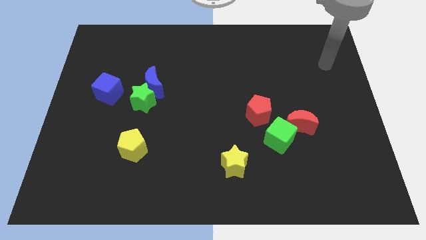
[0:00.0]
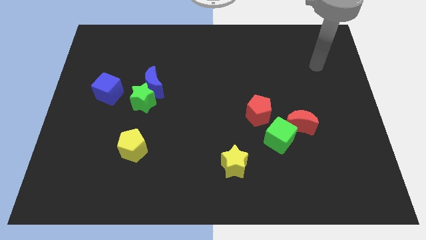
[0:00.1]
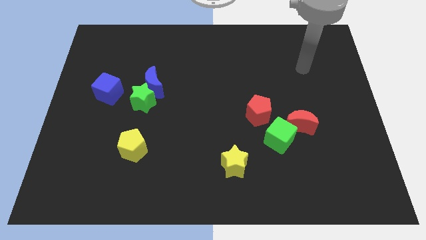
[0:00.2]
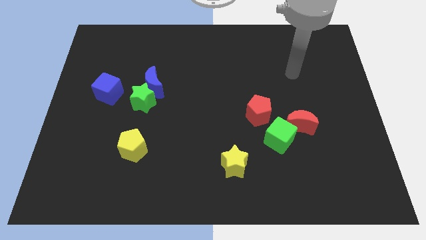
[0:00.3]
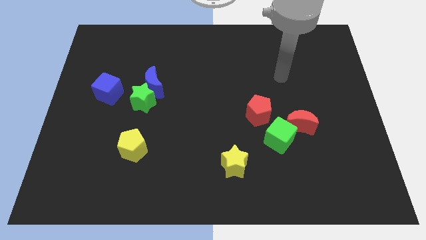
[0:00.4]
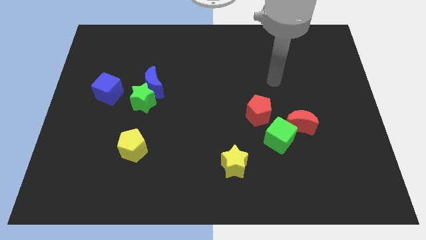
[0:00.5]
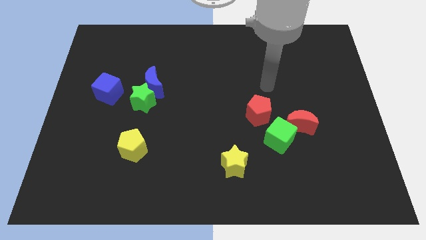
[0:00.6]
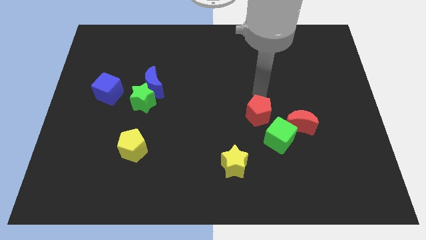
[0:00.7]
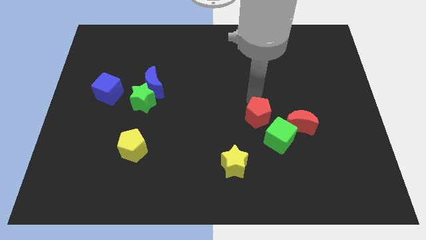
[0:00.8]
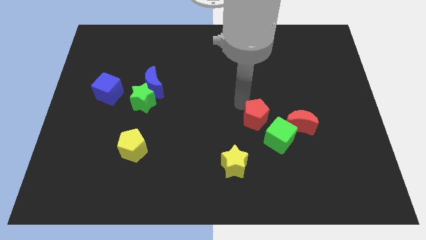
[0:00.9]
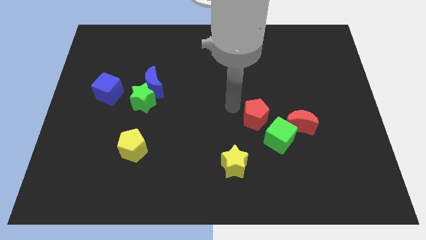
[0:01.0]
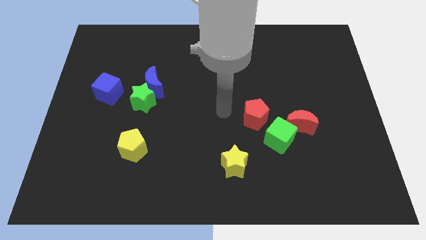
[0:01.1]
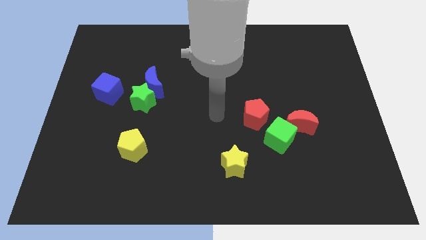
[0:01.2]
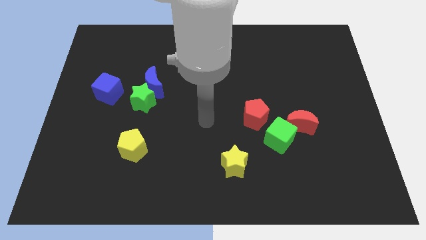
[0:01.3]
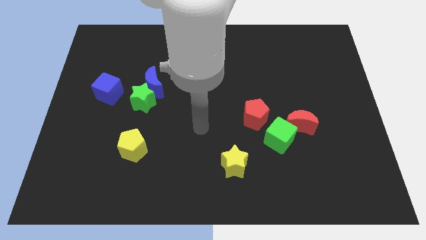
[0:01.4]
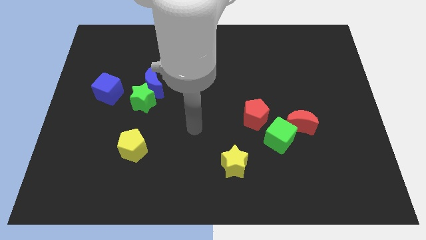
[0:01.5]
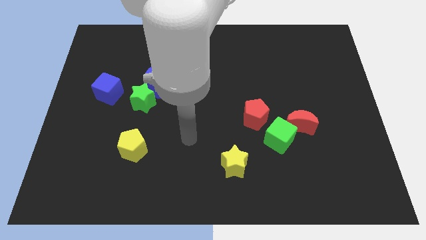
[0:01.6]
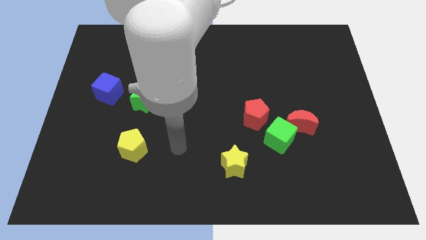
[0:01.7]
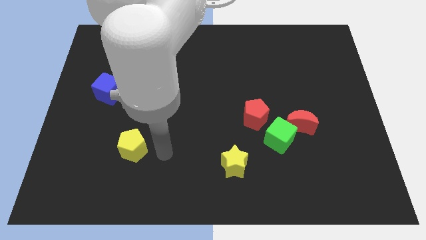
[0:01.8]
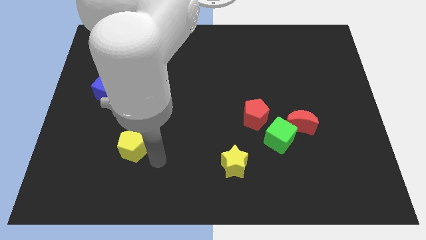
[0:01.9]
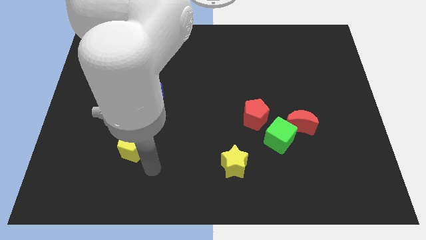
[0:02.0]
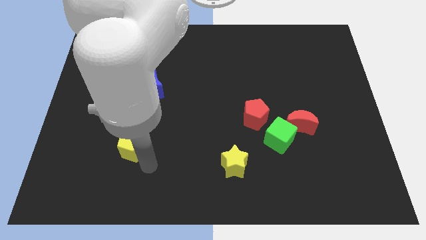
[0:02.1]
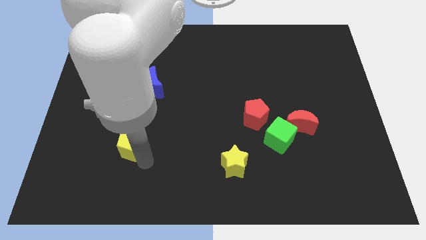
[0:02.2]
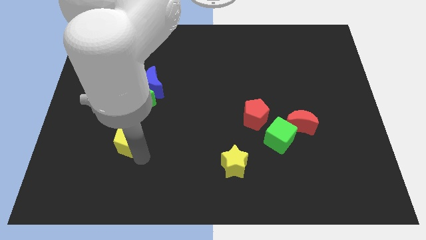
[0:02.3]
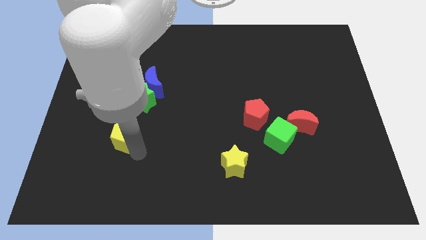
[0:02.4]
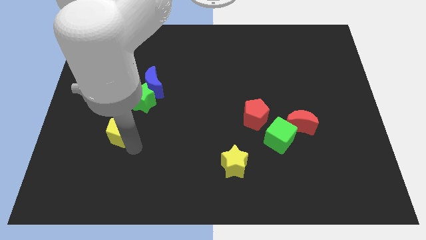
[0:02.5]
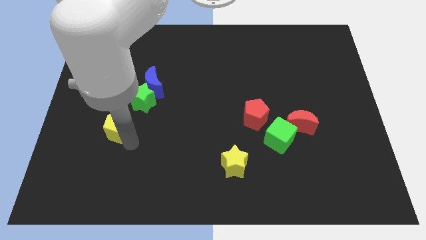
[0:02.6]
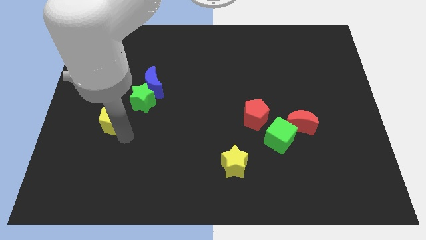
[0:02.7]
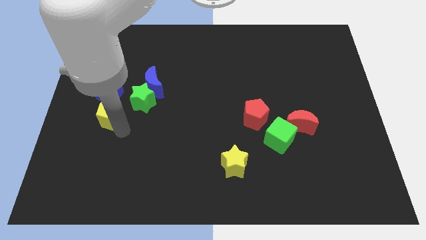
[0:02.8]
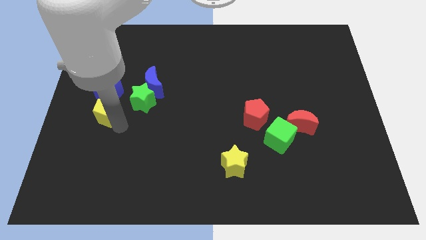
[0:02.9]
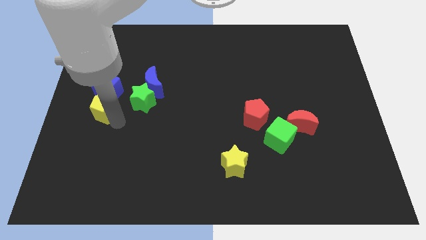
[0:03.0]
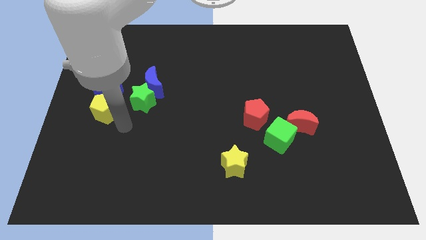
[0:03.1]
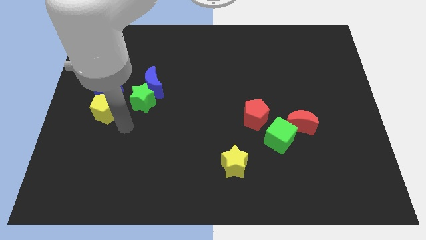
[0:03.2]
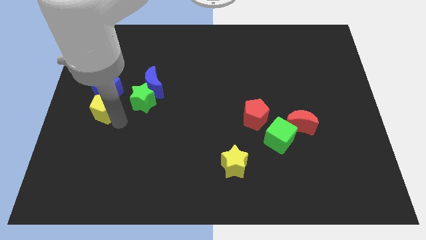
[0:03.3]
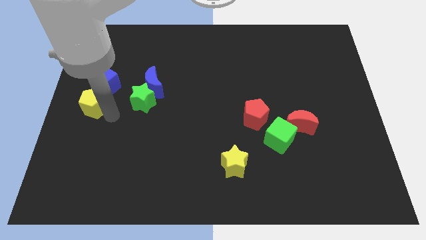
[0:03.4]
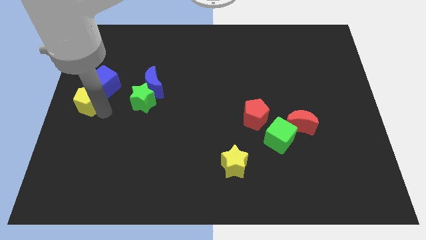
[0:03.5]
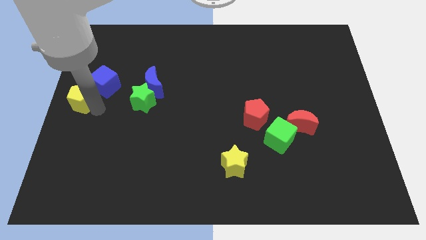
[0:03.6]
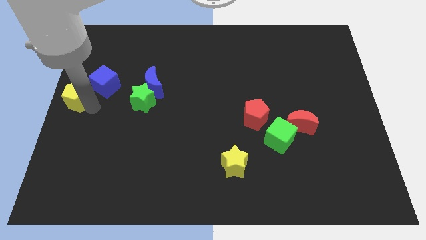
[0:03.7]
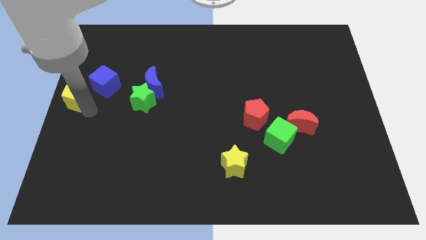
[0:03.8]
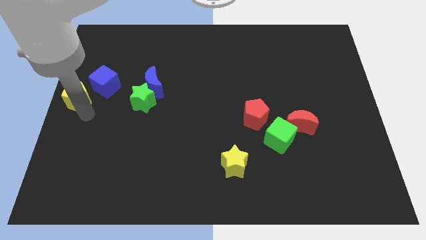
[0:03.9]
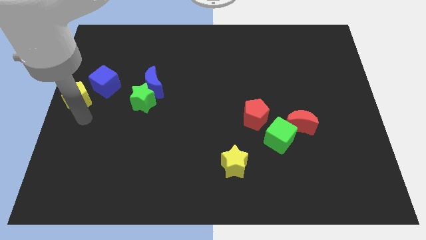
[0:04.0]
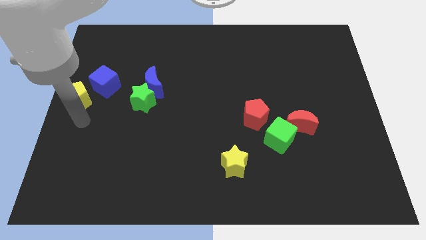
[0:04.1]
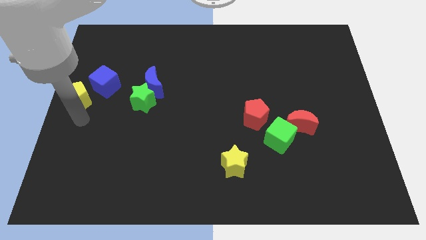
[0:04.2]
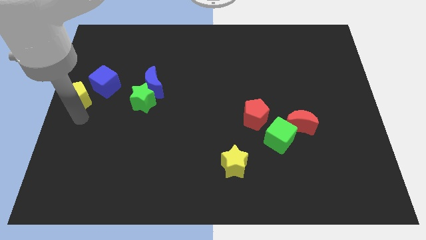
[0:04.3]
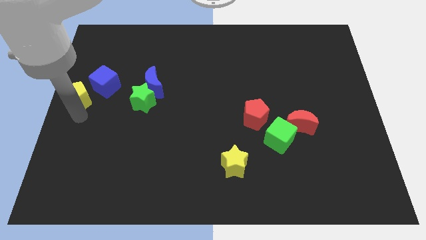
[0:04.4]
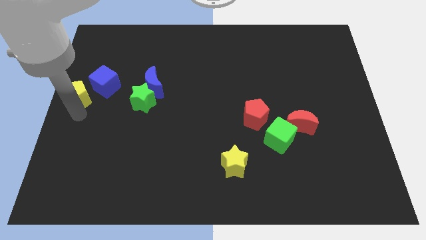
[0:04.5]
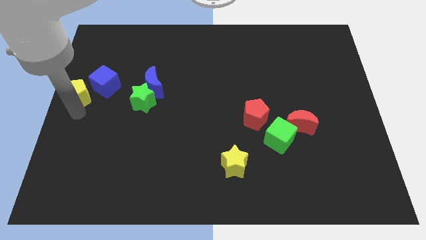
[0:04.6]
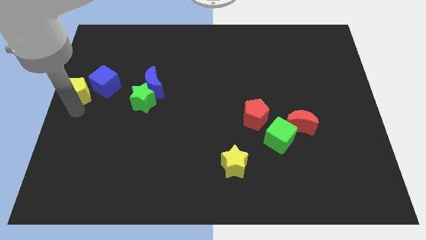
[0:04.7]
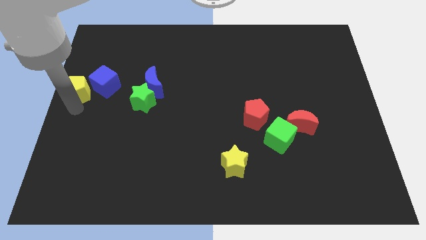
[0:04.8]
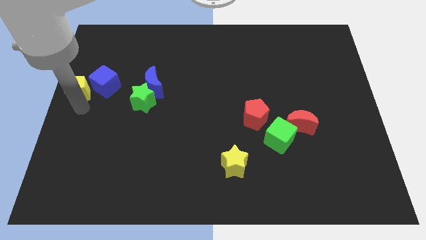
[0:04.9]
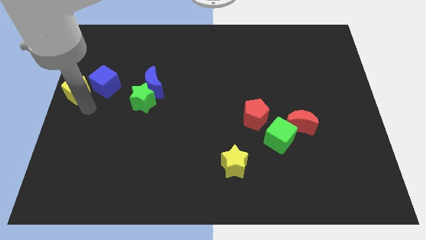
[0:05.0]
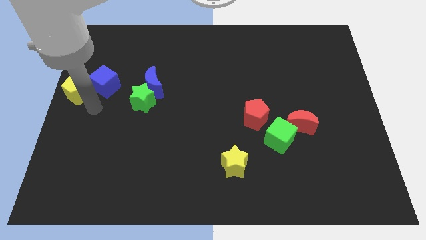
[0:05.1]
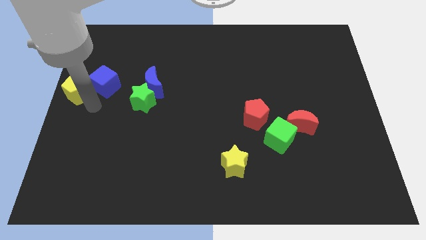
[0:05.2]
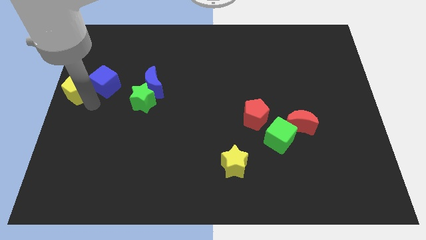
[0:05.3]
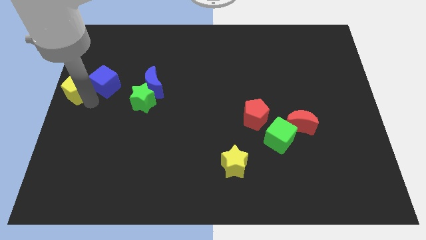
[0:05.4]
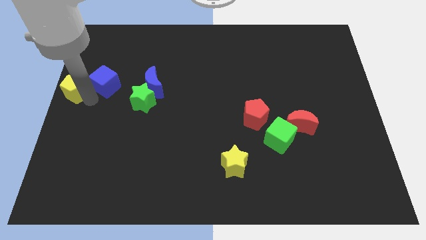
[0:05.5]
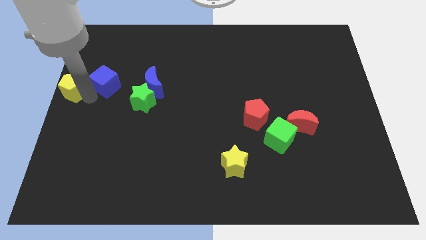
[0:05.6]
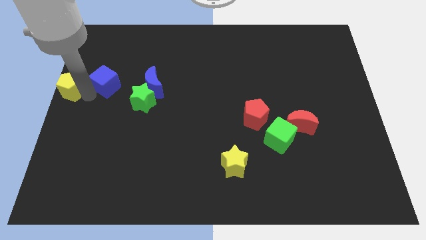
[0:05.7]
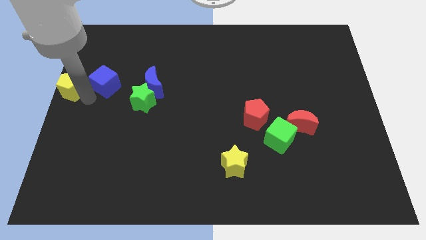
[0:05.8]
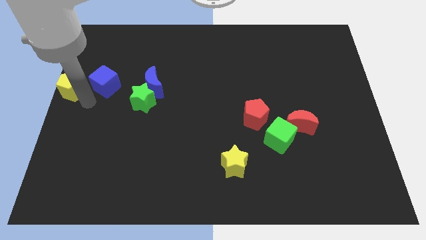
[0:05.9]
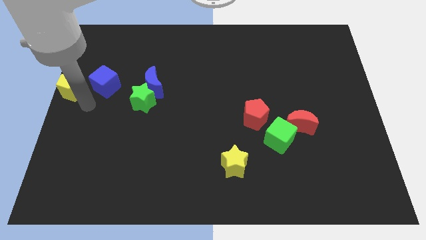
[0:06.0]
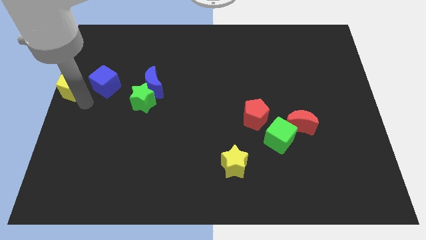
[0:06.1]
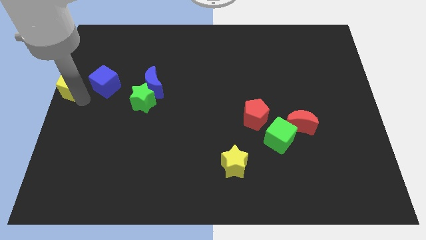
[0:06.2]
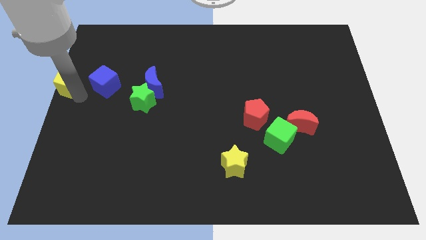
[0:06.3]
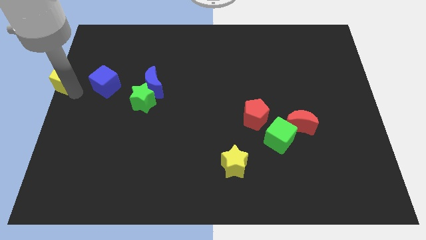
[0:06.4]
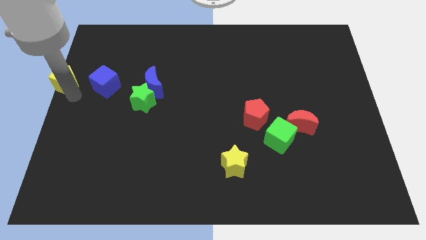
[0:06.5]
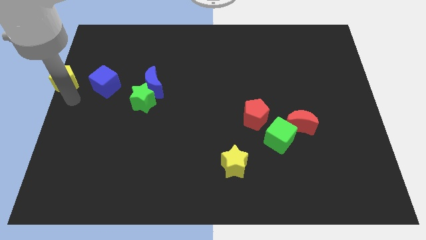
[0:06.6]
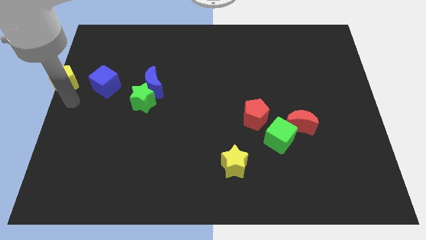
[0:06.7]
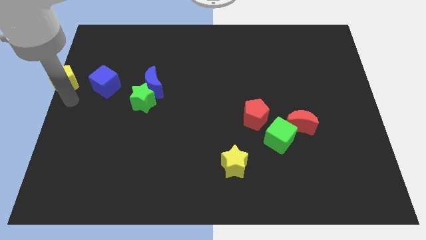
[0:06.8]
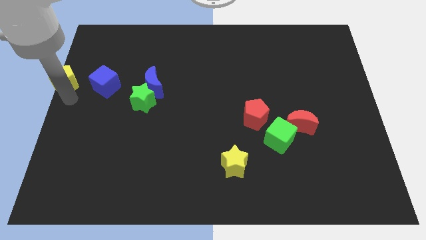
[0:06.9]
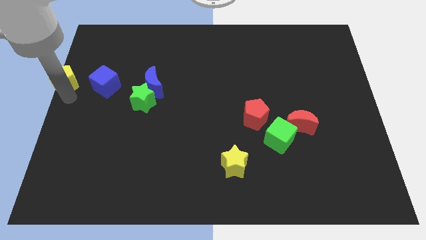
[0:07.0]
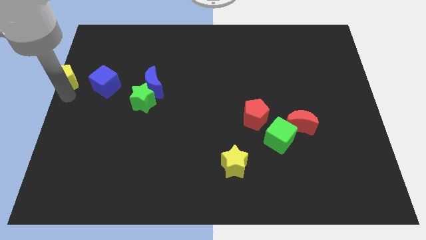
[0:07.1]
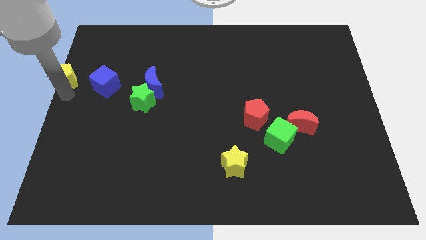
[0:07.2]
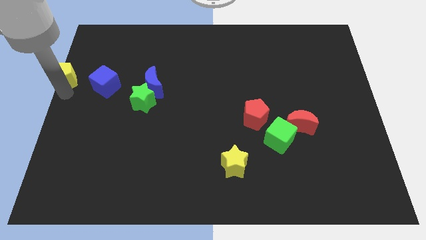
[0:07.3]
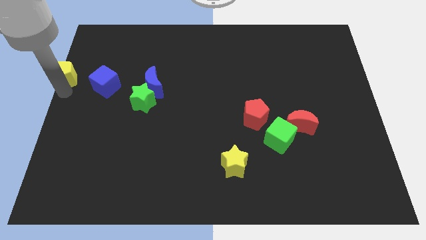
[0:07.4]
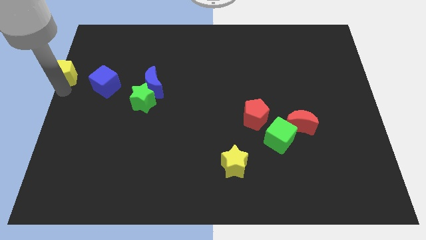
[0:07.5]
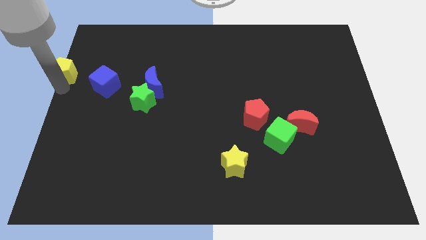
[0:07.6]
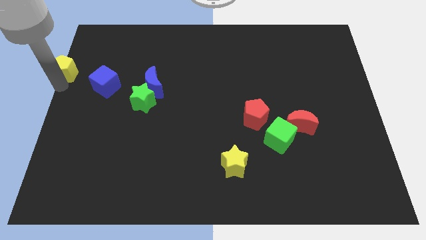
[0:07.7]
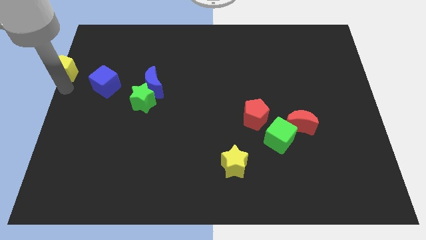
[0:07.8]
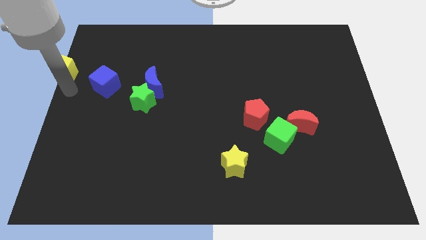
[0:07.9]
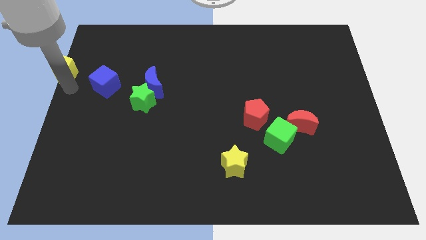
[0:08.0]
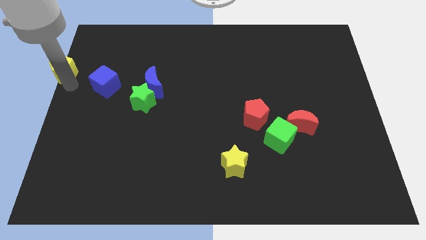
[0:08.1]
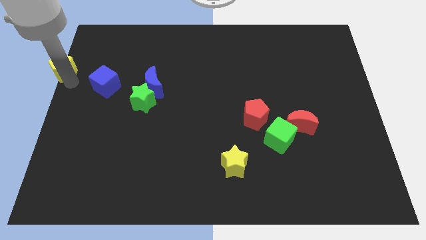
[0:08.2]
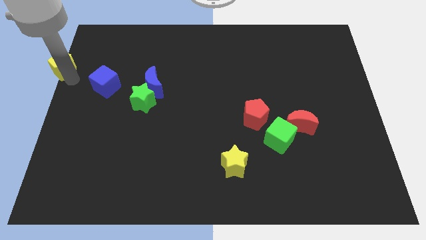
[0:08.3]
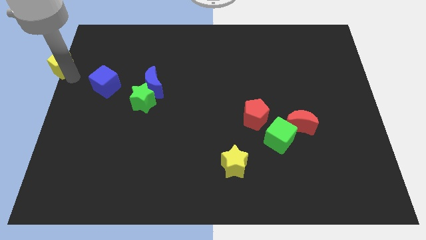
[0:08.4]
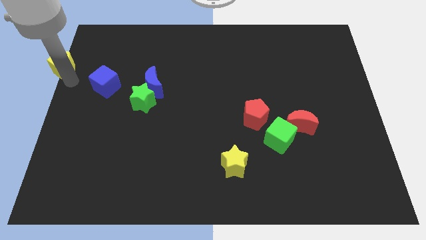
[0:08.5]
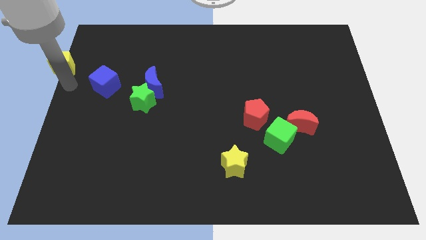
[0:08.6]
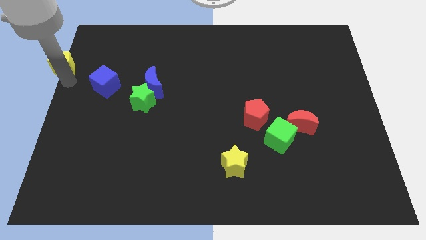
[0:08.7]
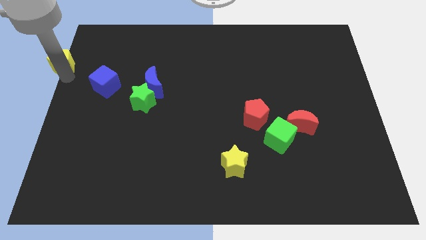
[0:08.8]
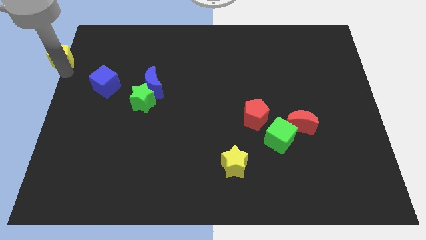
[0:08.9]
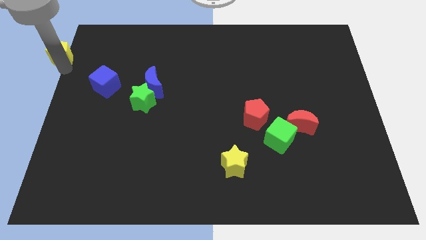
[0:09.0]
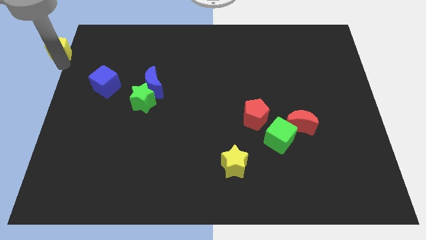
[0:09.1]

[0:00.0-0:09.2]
move the yellow pentagon to the upper left corner
